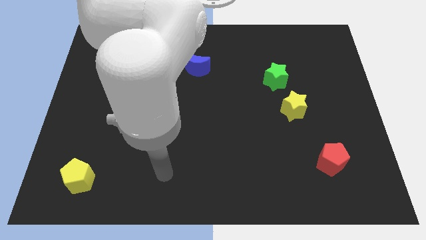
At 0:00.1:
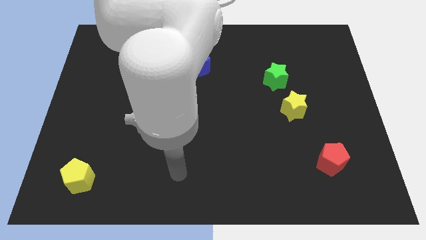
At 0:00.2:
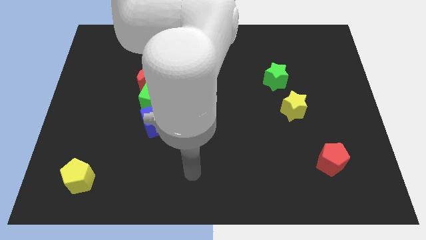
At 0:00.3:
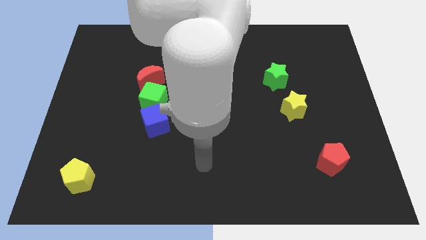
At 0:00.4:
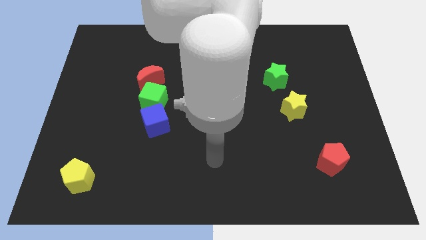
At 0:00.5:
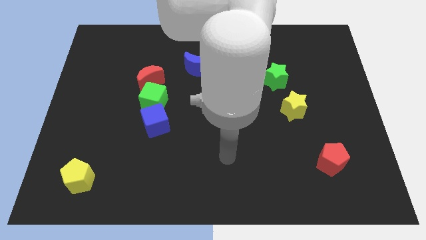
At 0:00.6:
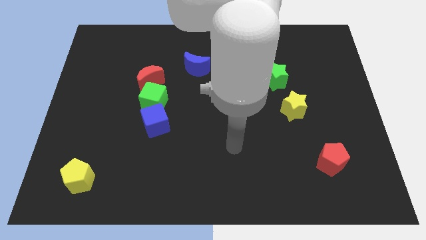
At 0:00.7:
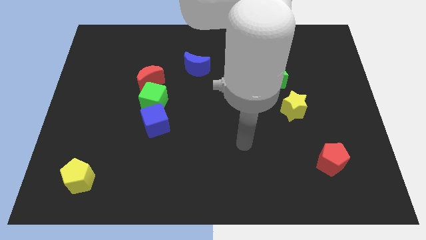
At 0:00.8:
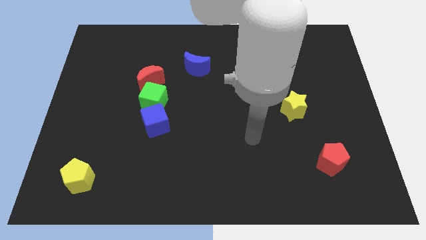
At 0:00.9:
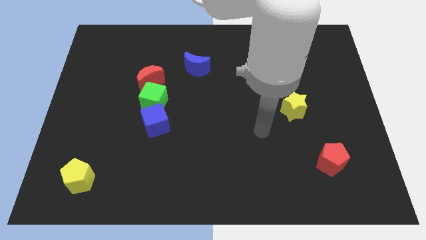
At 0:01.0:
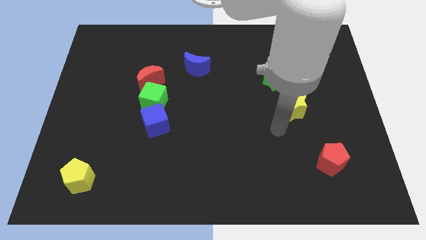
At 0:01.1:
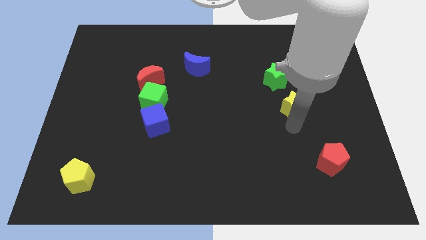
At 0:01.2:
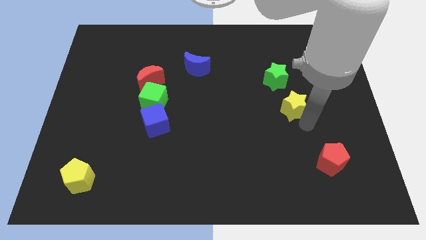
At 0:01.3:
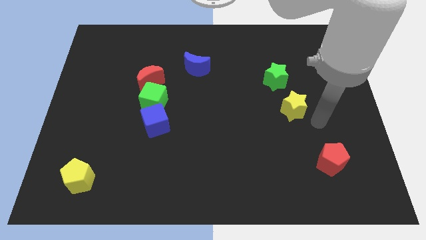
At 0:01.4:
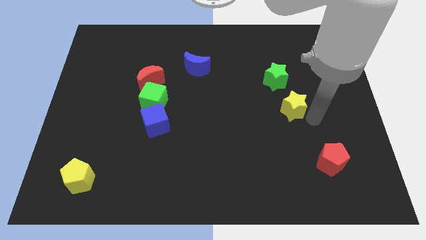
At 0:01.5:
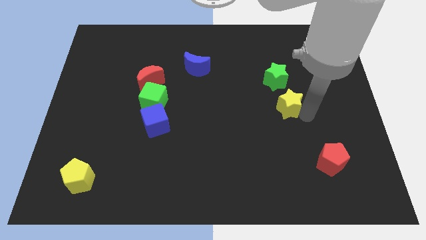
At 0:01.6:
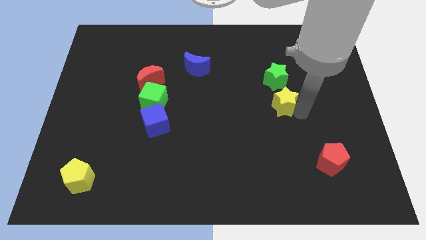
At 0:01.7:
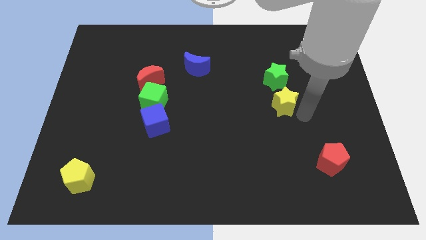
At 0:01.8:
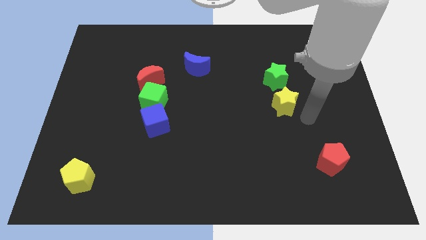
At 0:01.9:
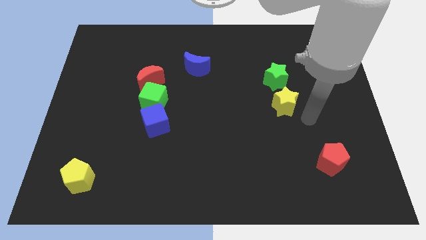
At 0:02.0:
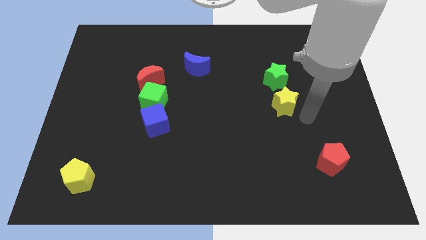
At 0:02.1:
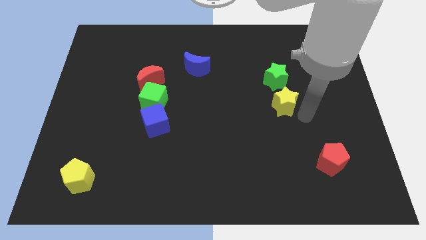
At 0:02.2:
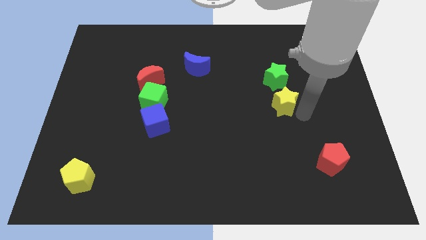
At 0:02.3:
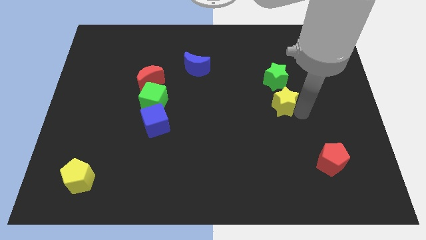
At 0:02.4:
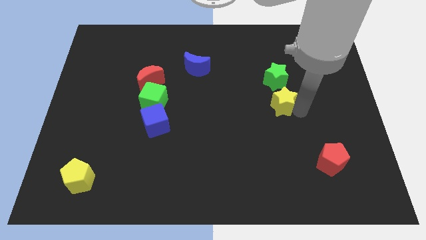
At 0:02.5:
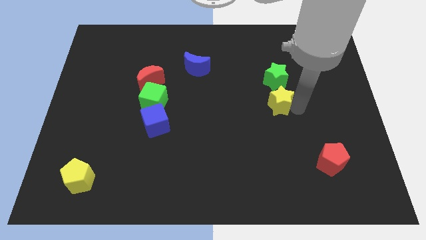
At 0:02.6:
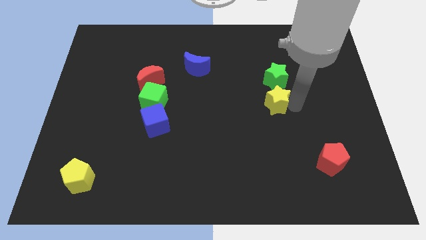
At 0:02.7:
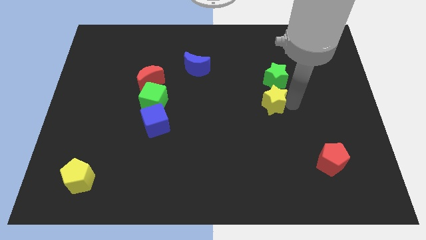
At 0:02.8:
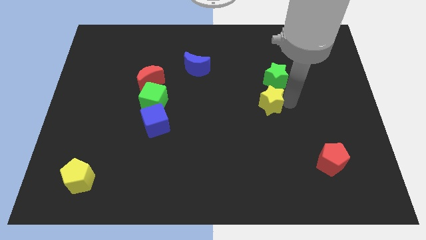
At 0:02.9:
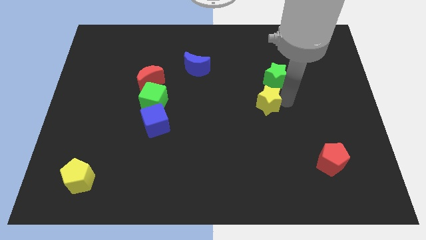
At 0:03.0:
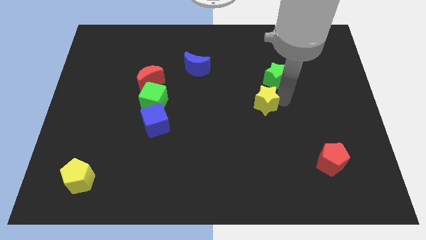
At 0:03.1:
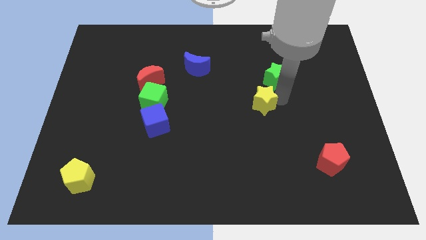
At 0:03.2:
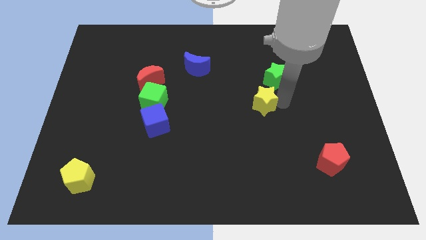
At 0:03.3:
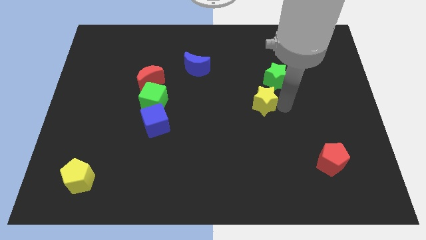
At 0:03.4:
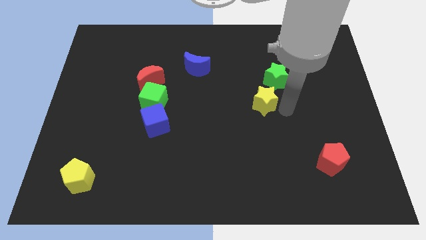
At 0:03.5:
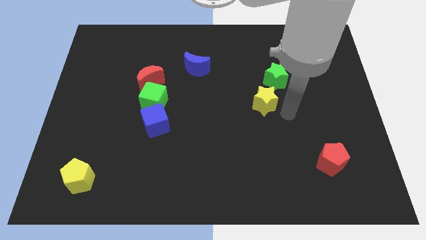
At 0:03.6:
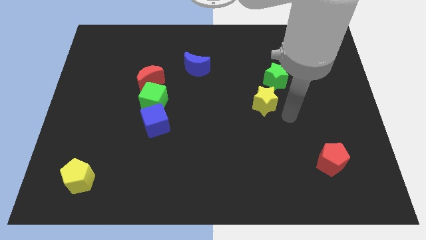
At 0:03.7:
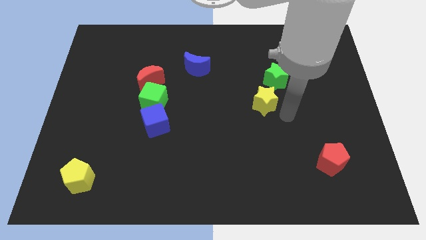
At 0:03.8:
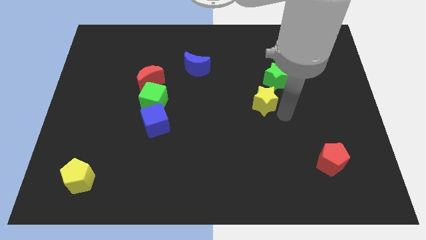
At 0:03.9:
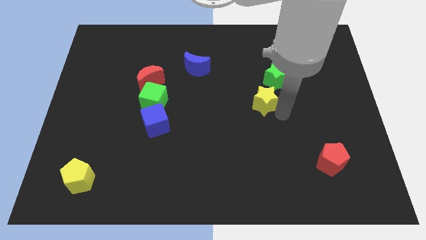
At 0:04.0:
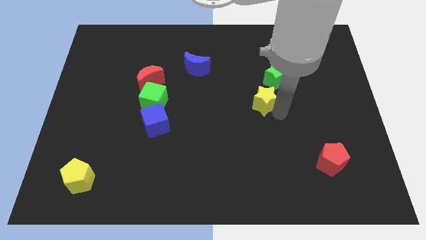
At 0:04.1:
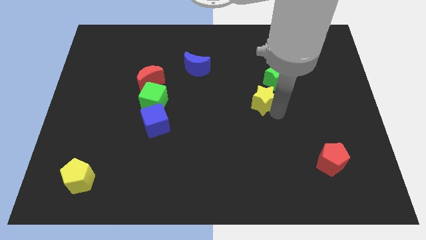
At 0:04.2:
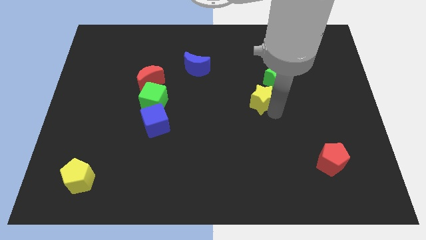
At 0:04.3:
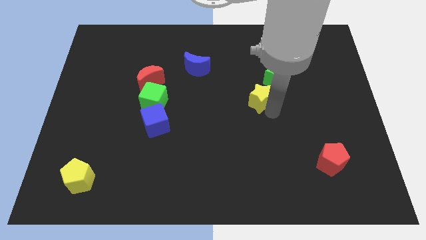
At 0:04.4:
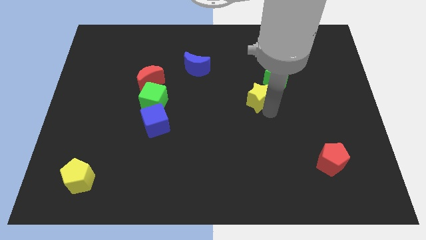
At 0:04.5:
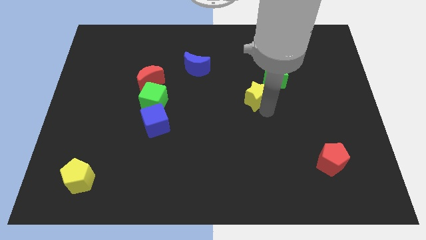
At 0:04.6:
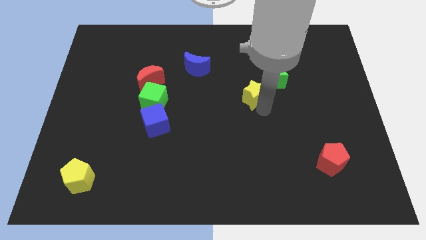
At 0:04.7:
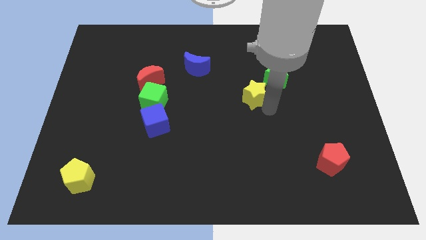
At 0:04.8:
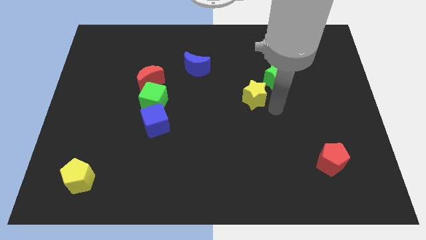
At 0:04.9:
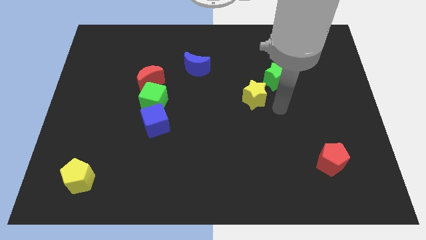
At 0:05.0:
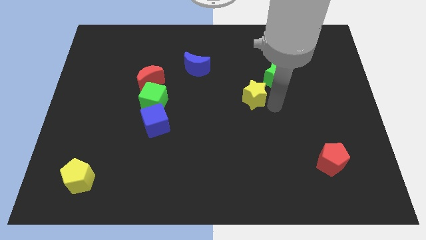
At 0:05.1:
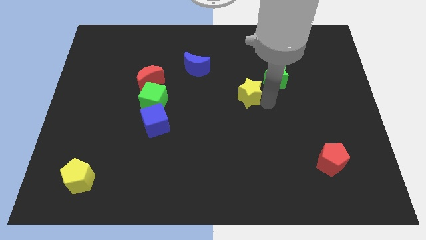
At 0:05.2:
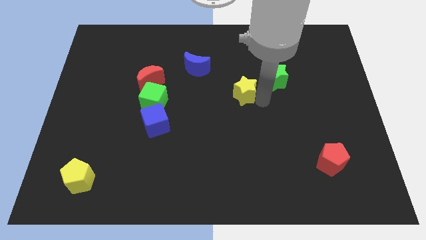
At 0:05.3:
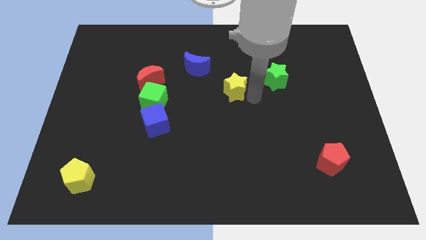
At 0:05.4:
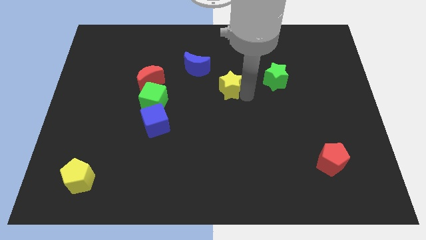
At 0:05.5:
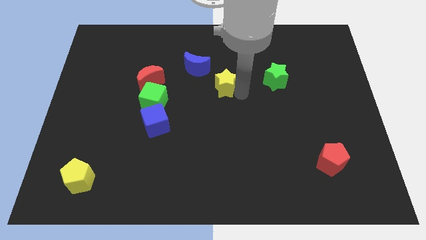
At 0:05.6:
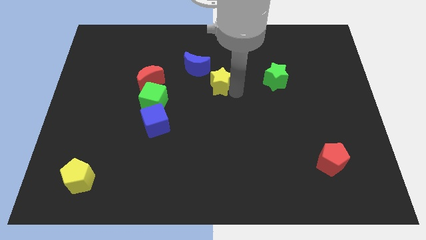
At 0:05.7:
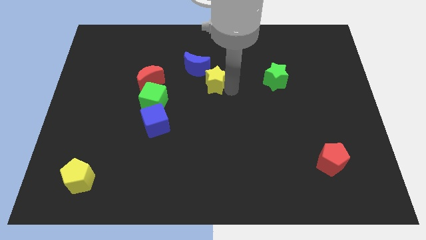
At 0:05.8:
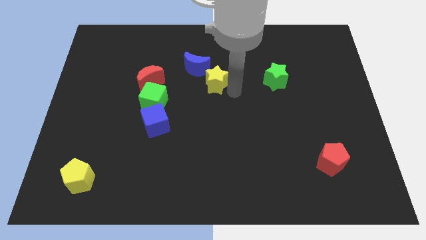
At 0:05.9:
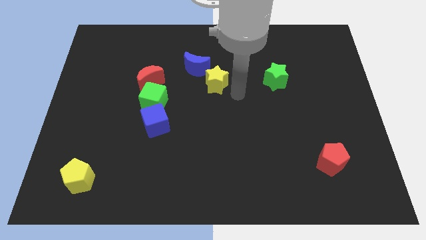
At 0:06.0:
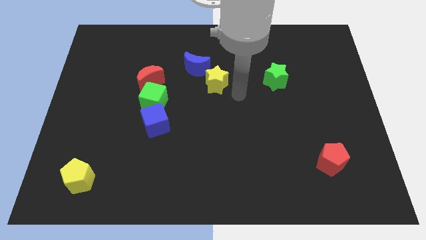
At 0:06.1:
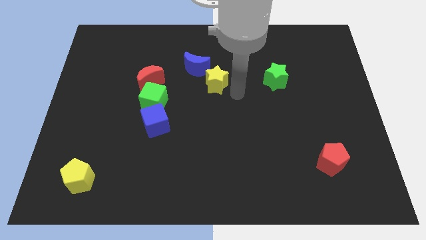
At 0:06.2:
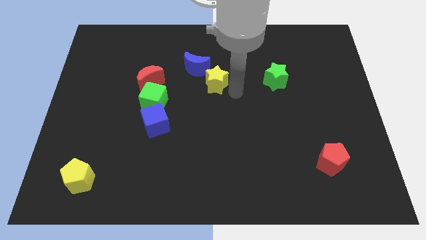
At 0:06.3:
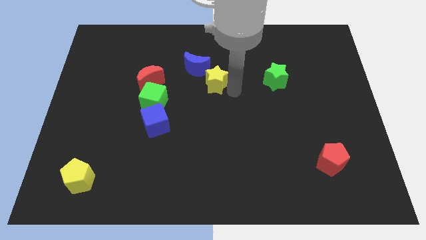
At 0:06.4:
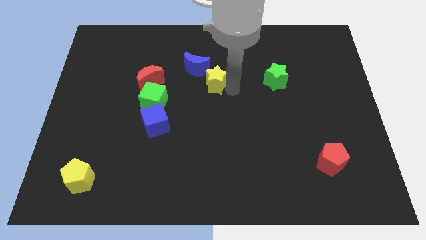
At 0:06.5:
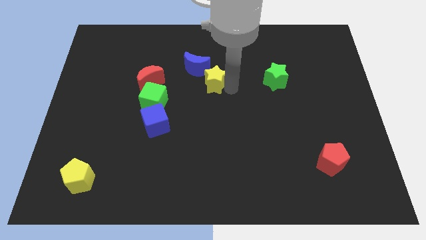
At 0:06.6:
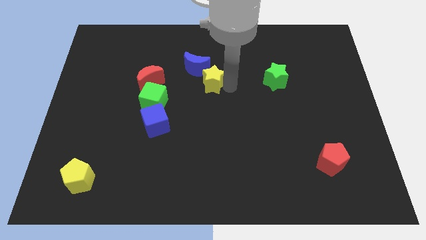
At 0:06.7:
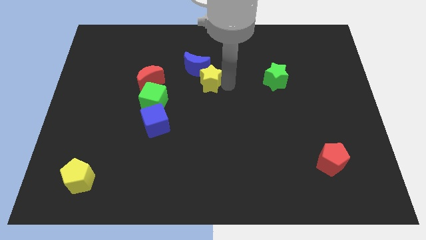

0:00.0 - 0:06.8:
move the yellow star to the blue moon
